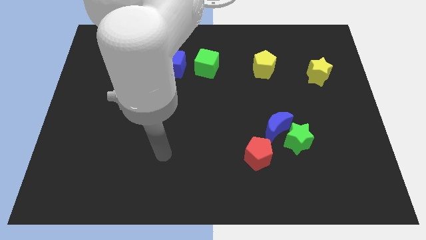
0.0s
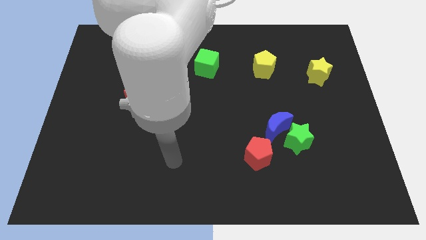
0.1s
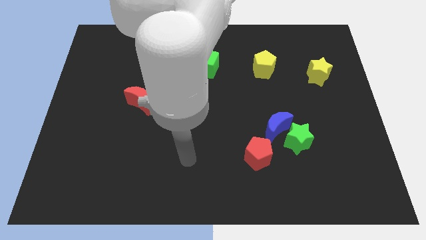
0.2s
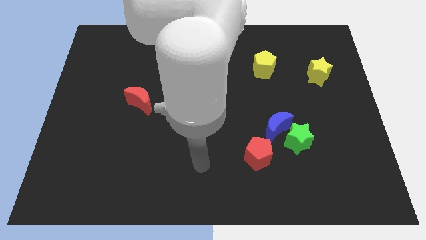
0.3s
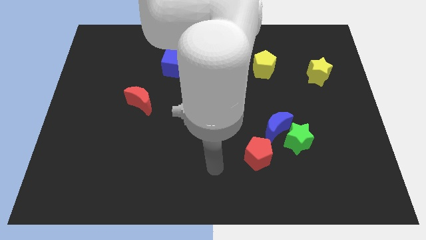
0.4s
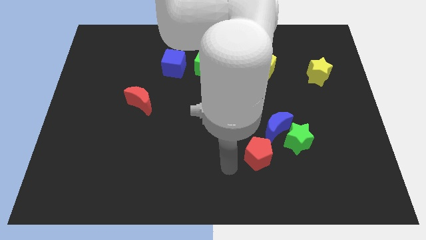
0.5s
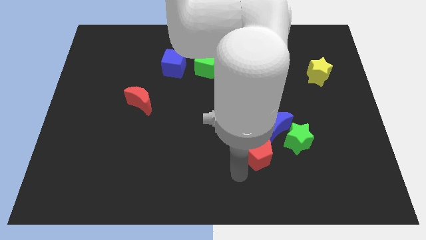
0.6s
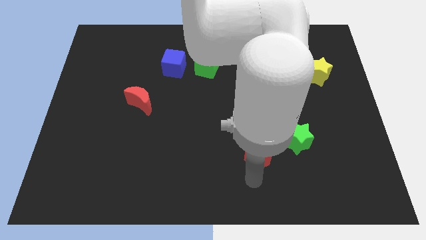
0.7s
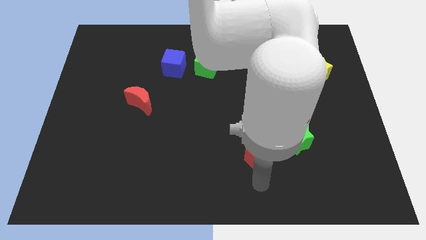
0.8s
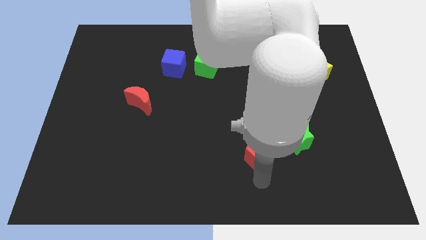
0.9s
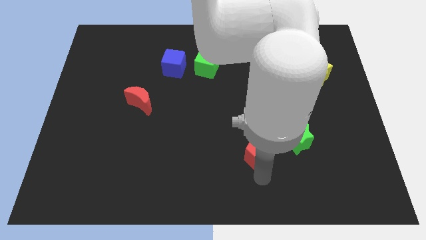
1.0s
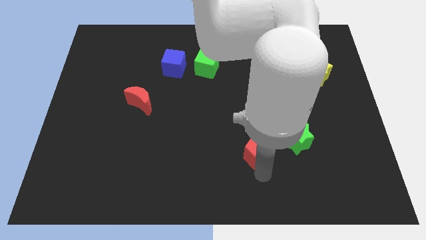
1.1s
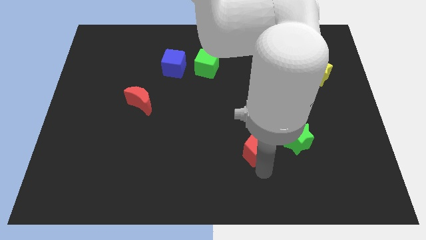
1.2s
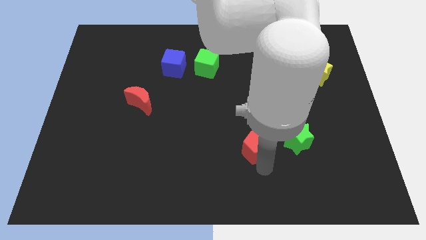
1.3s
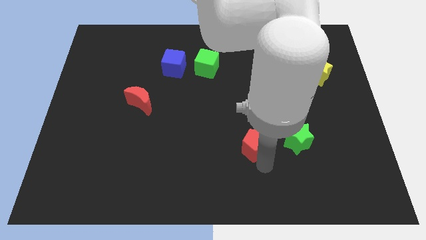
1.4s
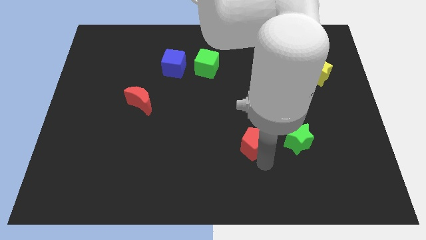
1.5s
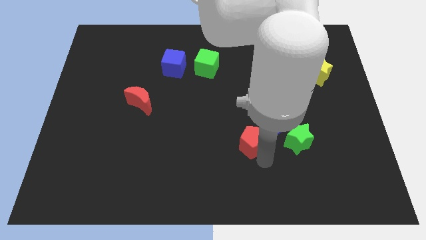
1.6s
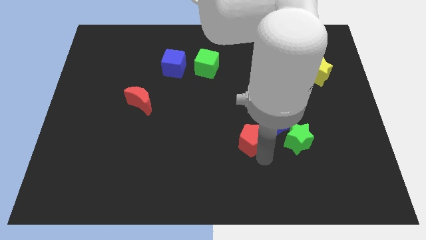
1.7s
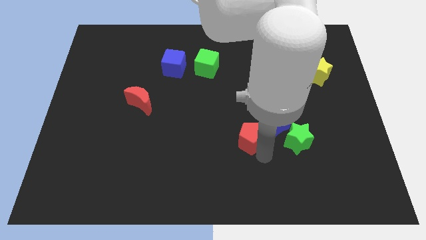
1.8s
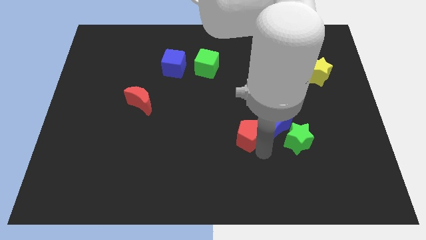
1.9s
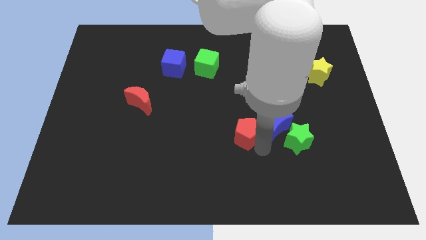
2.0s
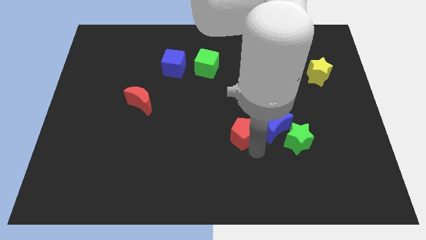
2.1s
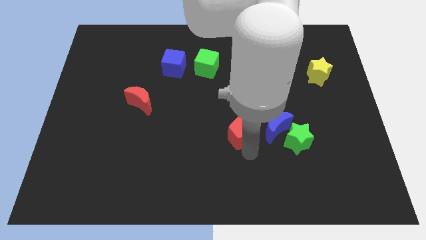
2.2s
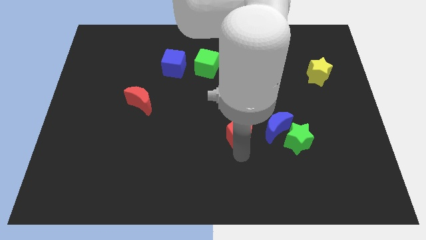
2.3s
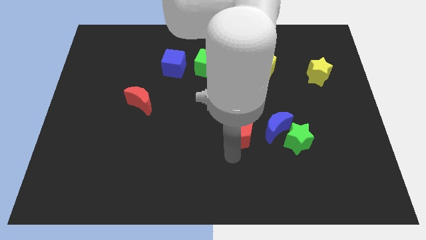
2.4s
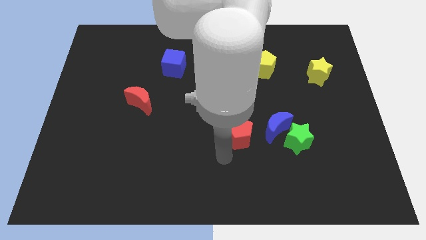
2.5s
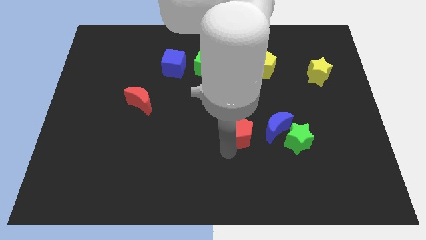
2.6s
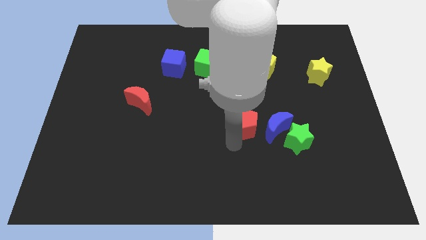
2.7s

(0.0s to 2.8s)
slightly slide the red pentagon upwards

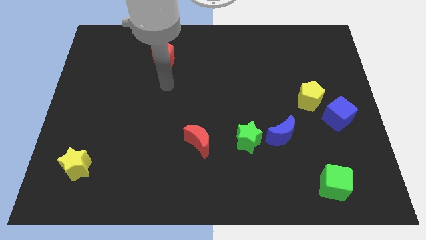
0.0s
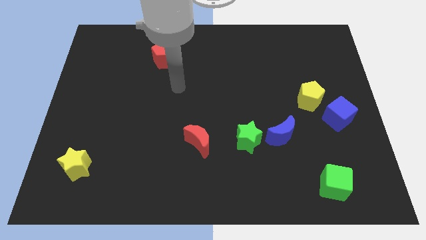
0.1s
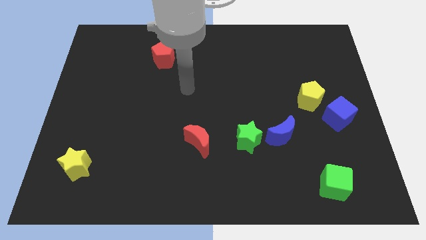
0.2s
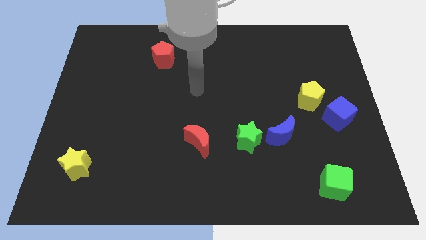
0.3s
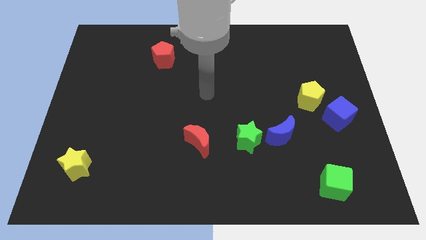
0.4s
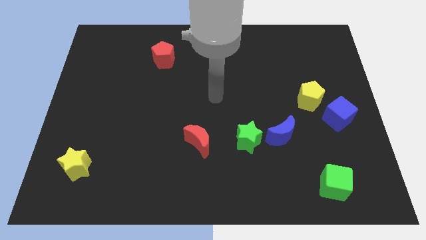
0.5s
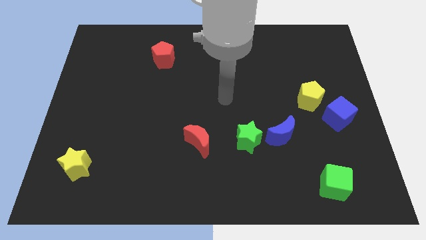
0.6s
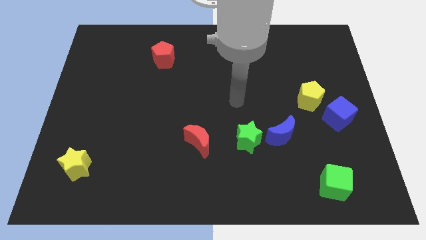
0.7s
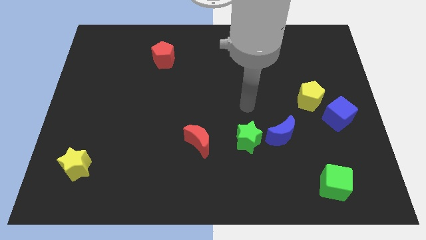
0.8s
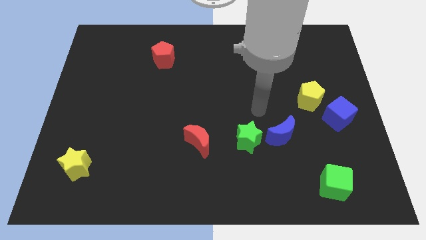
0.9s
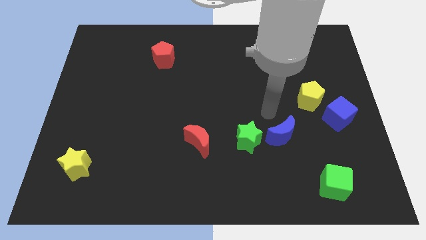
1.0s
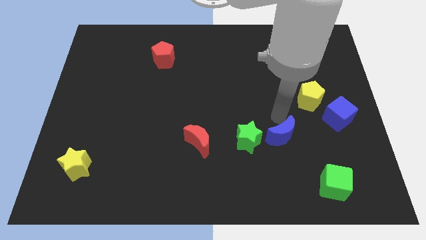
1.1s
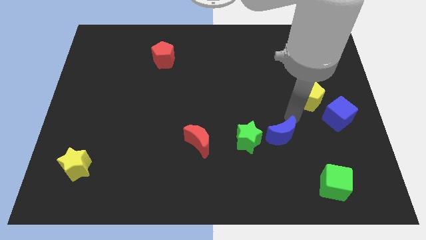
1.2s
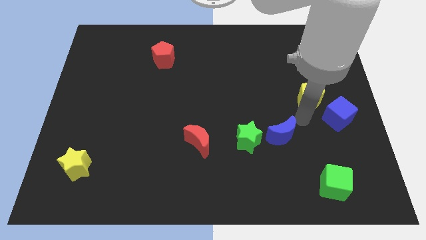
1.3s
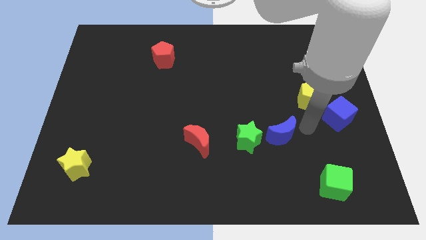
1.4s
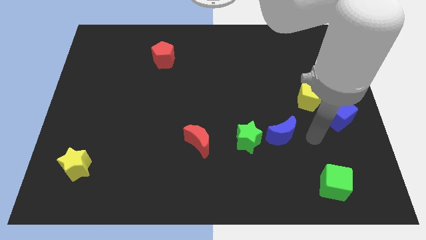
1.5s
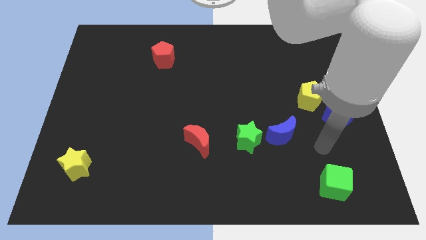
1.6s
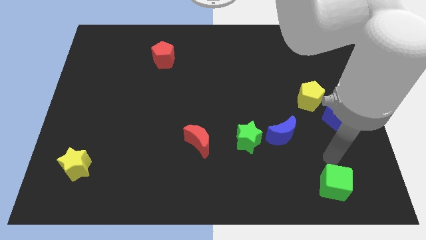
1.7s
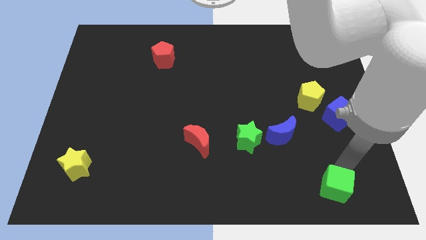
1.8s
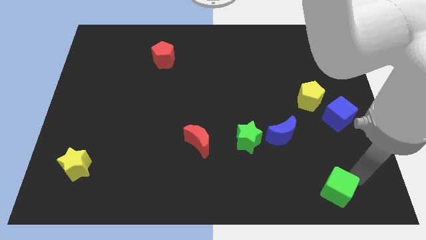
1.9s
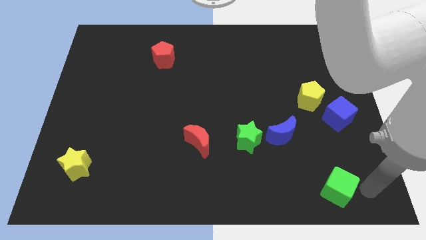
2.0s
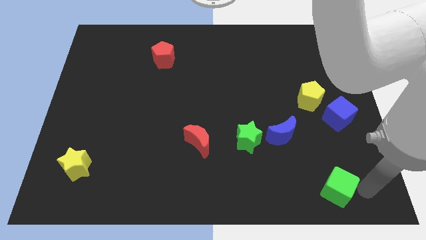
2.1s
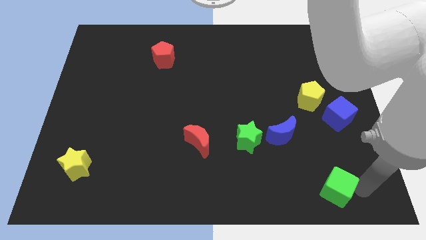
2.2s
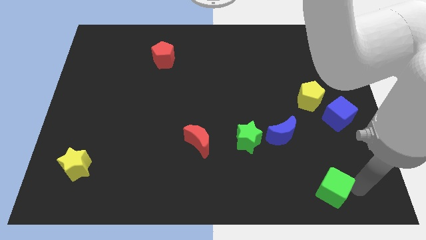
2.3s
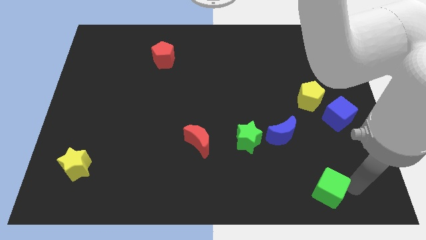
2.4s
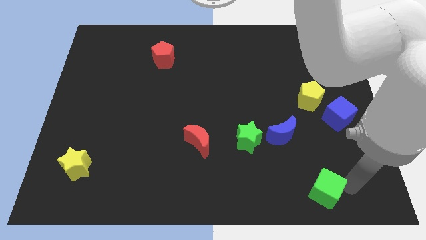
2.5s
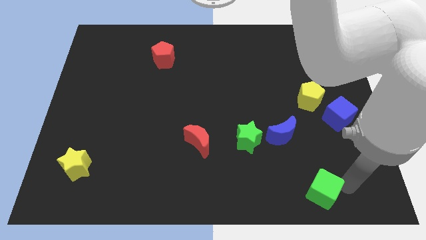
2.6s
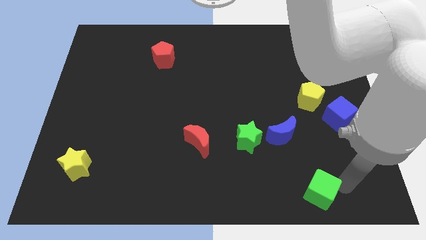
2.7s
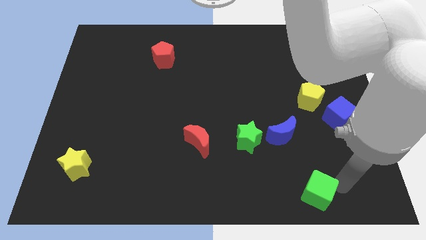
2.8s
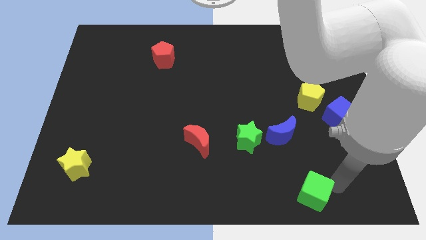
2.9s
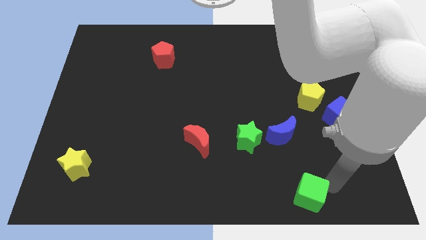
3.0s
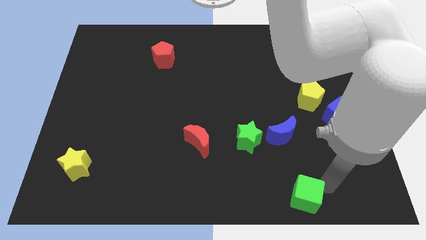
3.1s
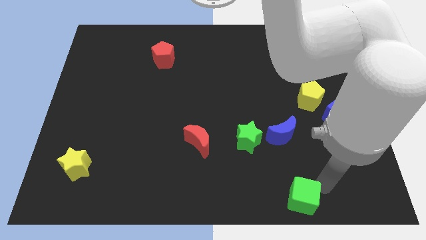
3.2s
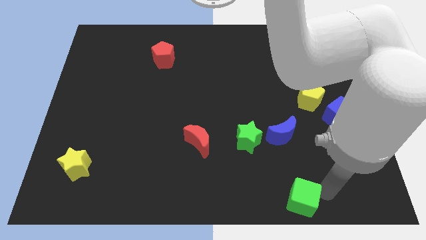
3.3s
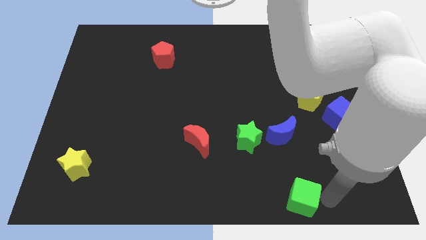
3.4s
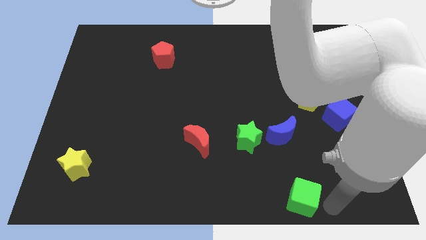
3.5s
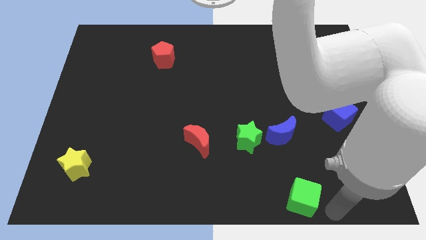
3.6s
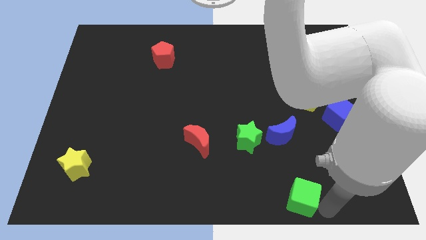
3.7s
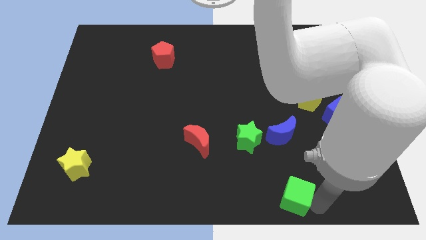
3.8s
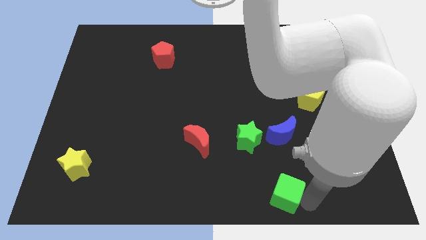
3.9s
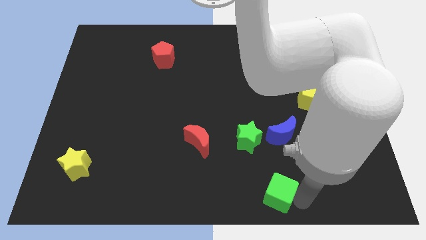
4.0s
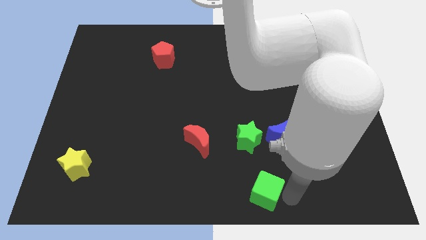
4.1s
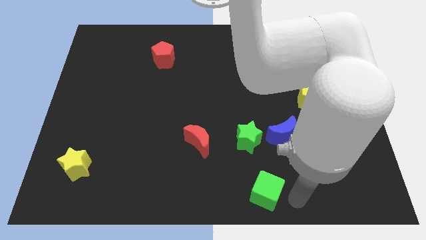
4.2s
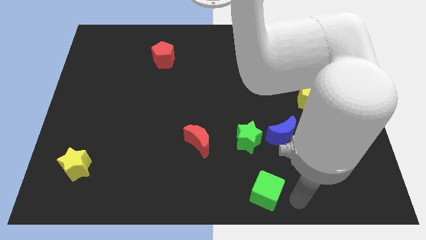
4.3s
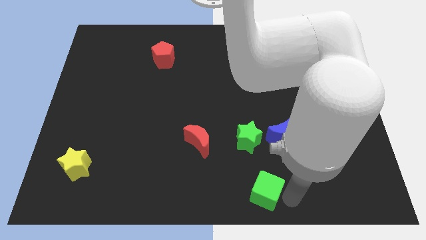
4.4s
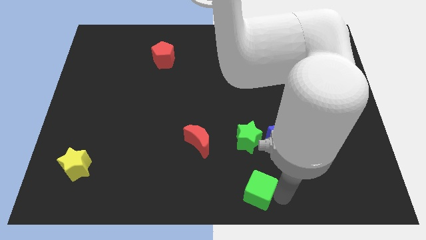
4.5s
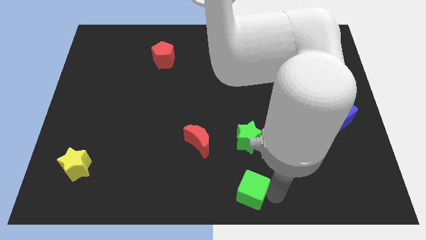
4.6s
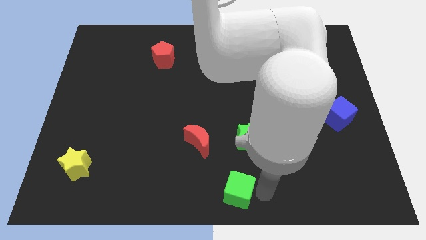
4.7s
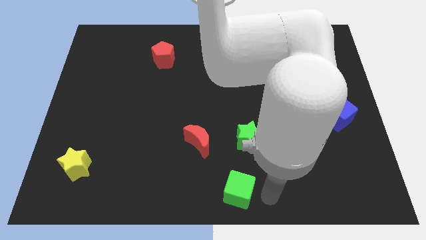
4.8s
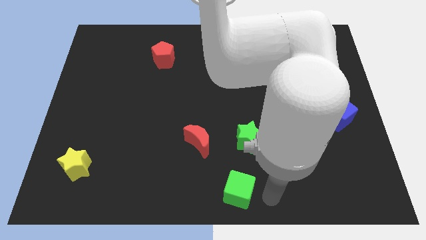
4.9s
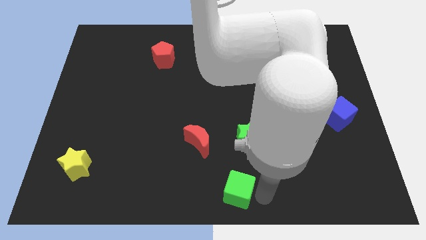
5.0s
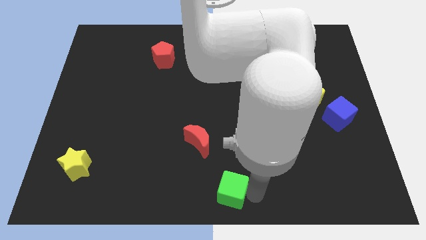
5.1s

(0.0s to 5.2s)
slide the green cube to the left

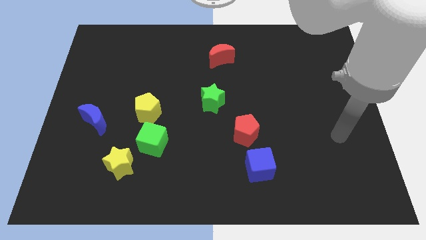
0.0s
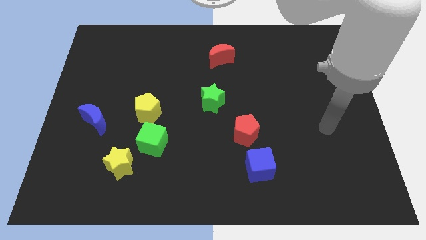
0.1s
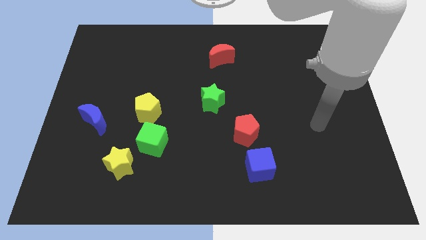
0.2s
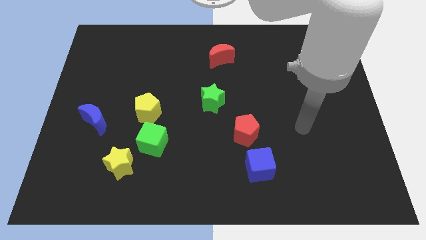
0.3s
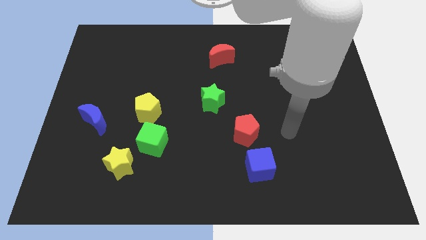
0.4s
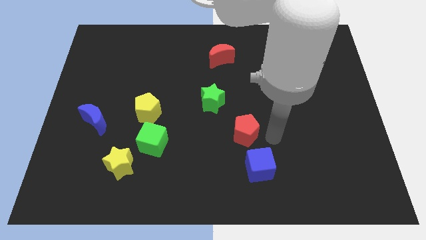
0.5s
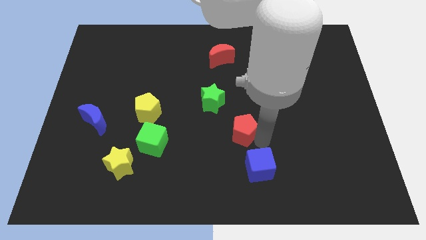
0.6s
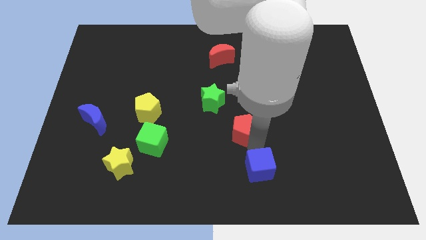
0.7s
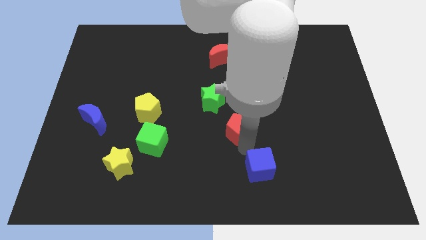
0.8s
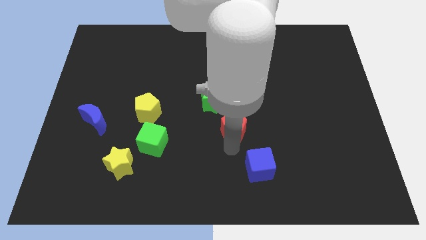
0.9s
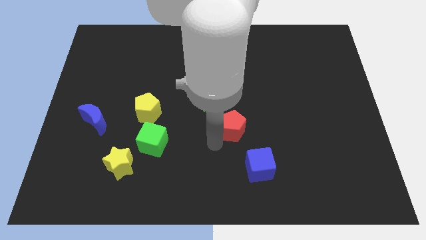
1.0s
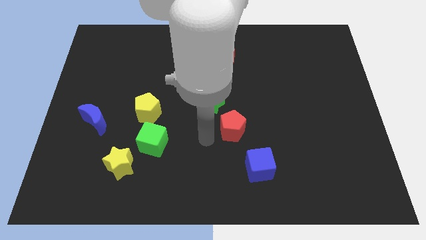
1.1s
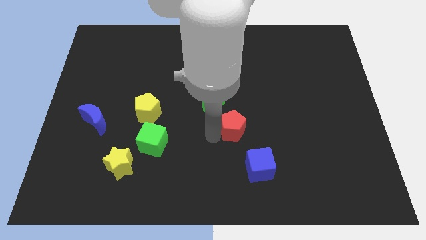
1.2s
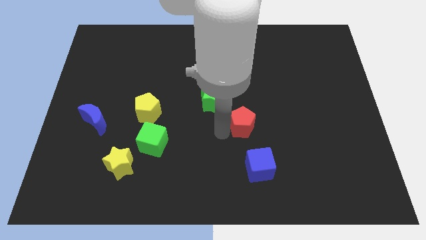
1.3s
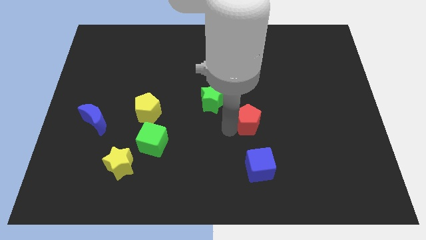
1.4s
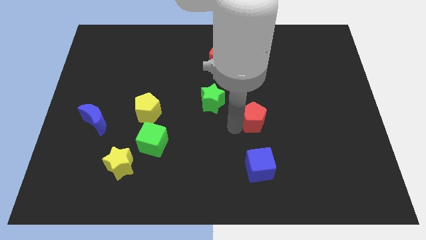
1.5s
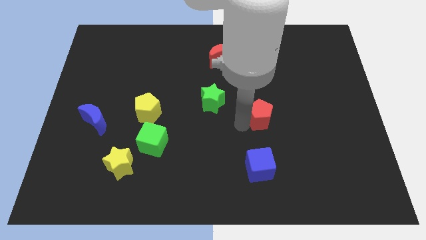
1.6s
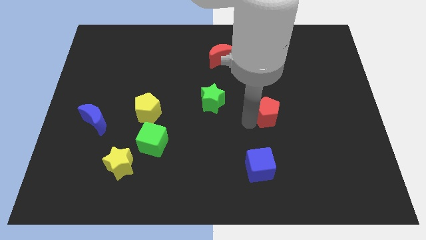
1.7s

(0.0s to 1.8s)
slide the red pentagon upwards and to the right diagonally somewhat
